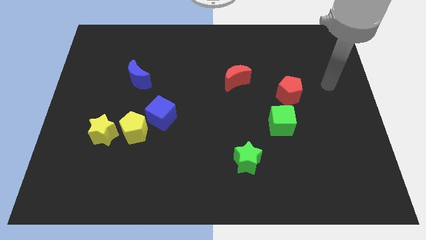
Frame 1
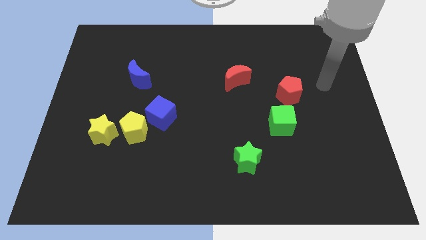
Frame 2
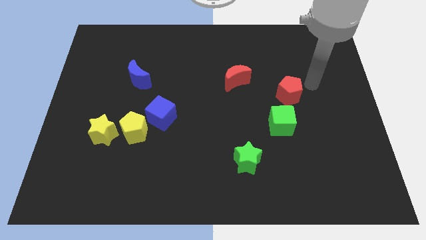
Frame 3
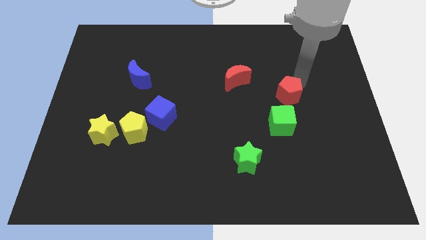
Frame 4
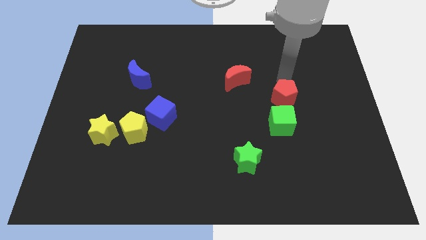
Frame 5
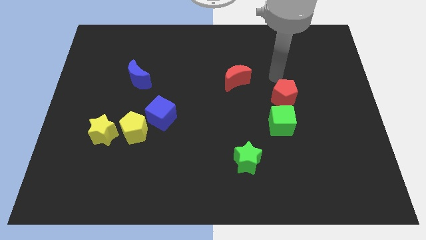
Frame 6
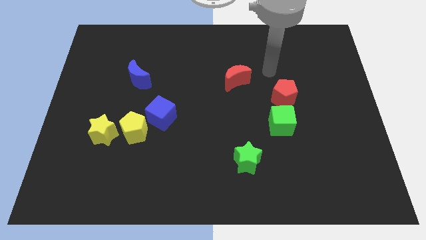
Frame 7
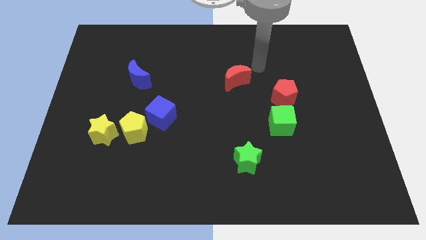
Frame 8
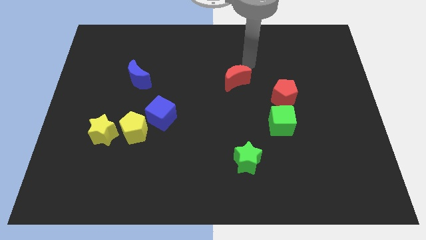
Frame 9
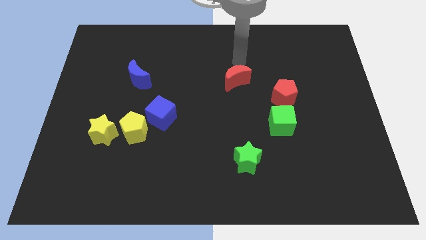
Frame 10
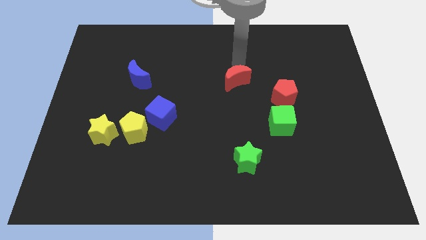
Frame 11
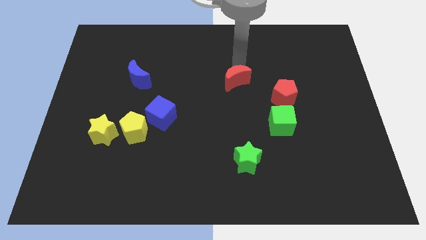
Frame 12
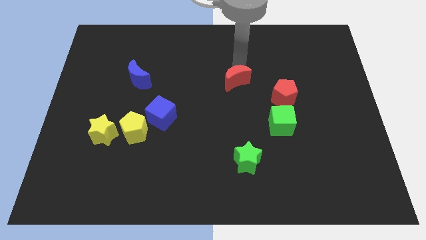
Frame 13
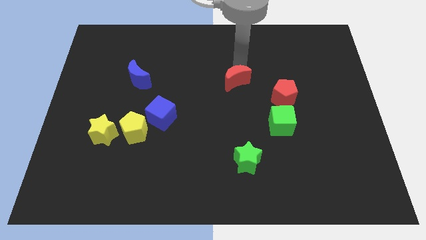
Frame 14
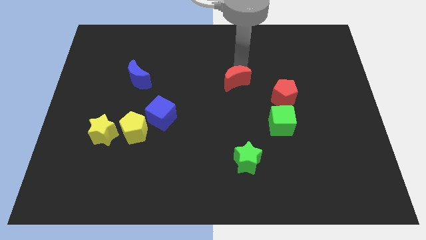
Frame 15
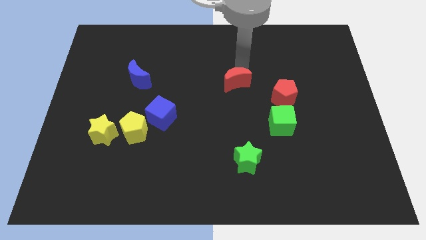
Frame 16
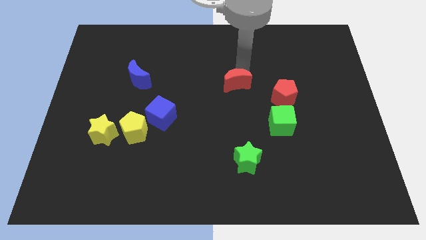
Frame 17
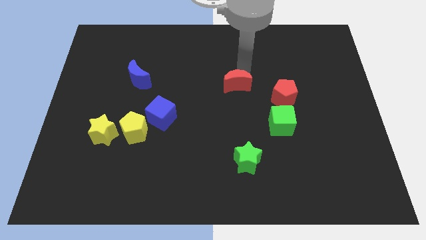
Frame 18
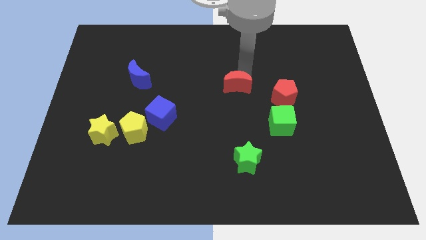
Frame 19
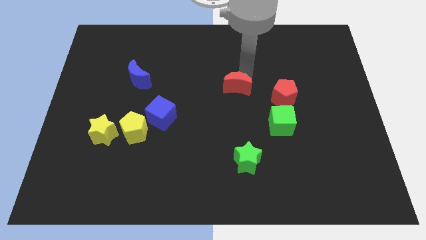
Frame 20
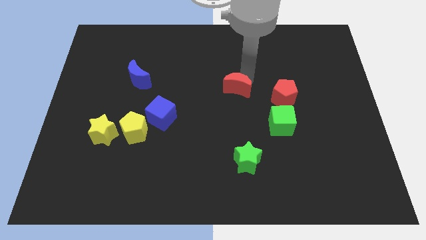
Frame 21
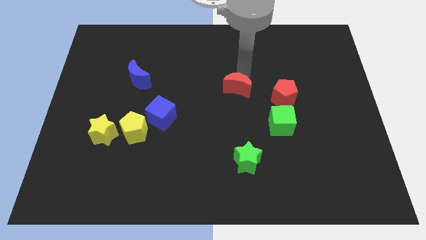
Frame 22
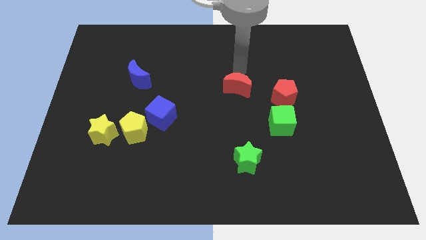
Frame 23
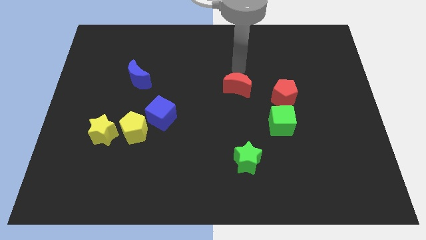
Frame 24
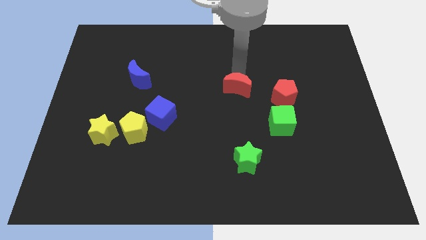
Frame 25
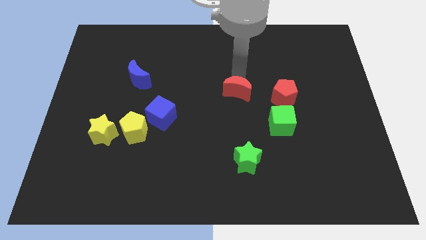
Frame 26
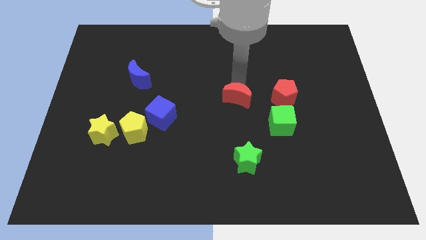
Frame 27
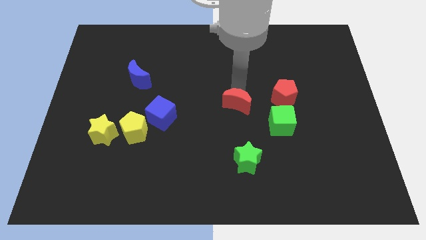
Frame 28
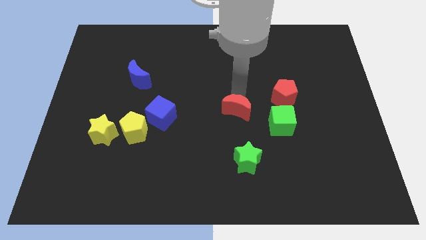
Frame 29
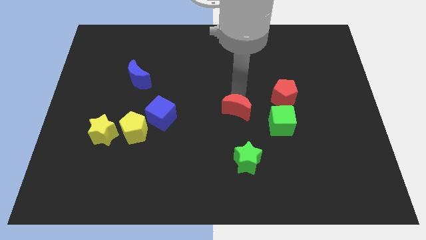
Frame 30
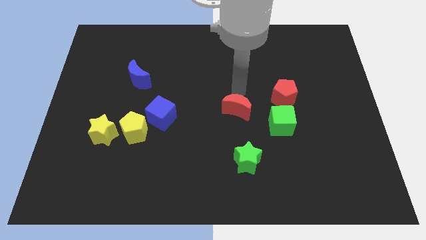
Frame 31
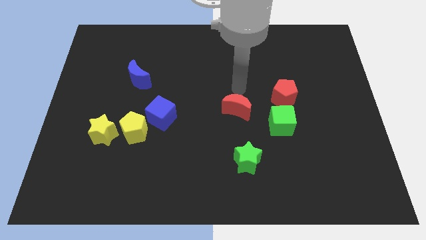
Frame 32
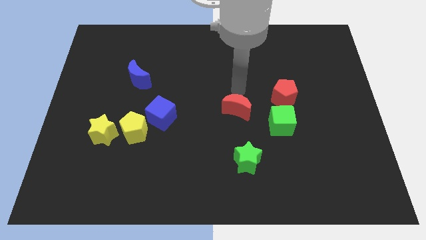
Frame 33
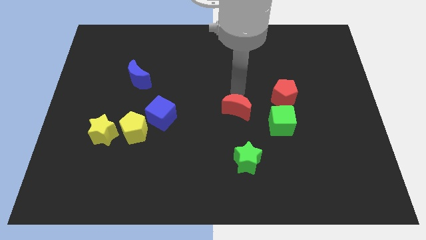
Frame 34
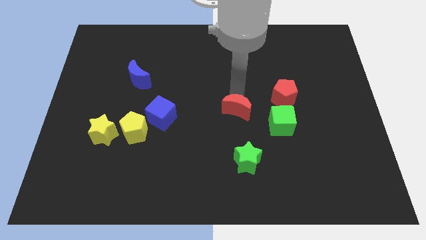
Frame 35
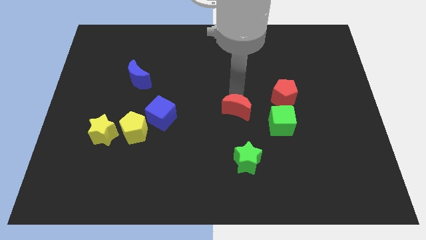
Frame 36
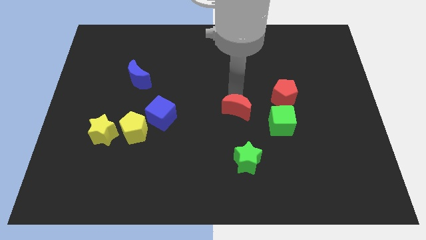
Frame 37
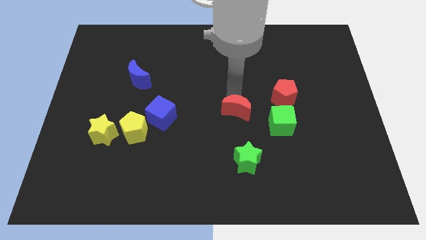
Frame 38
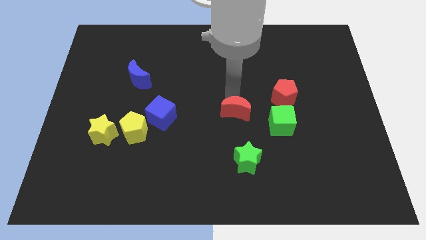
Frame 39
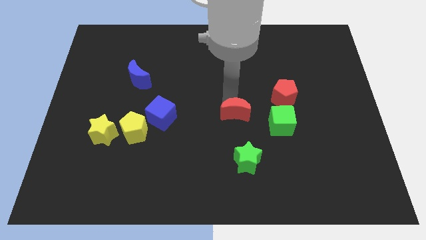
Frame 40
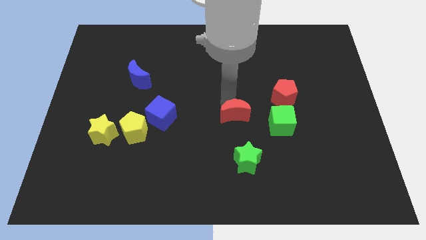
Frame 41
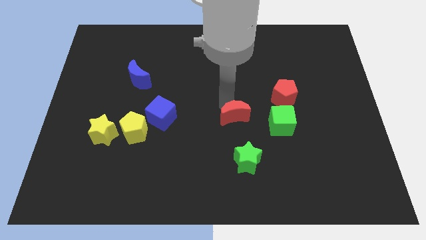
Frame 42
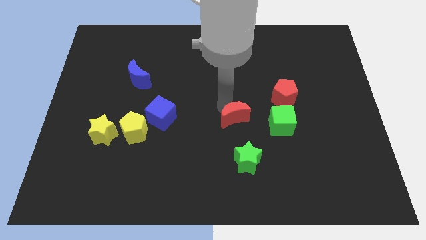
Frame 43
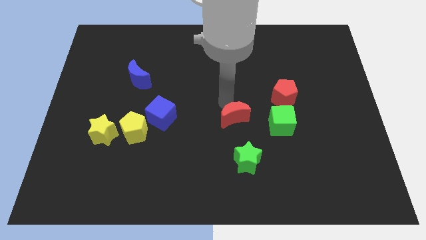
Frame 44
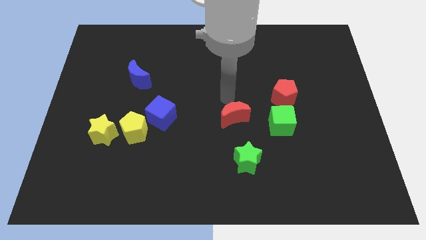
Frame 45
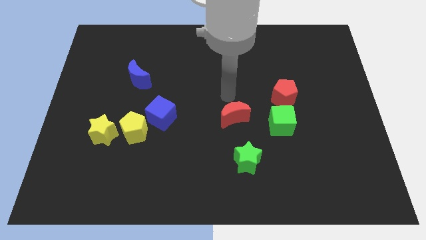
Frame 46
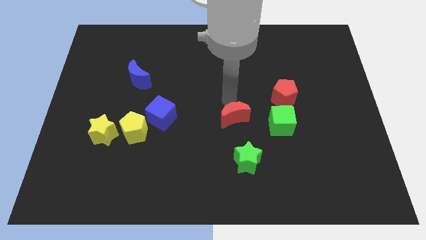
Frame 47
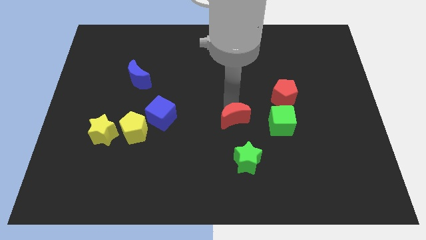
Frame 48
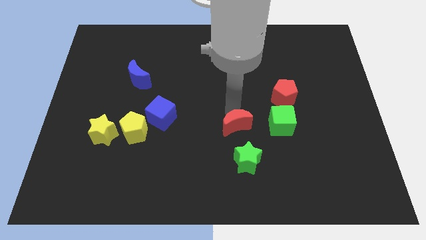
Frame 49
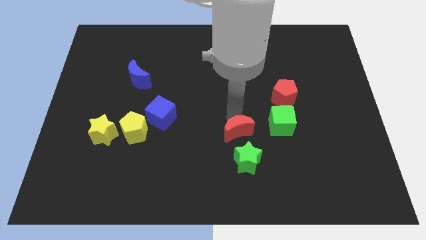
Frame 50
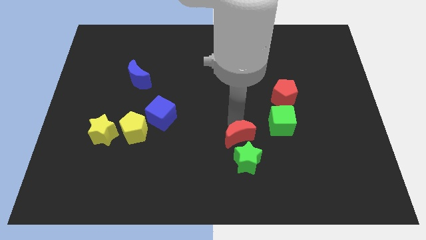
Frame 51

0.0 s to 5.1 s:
move the red moon to the green star

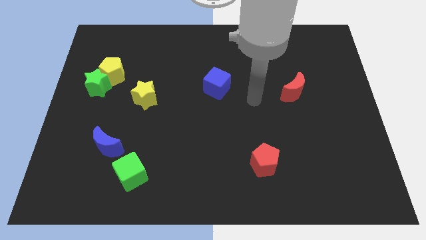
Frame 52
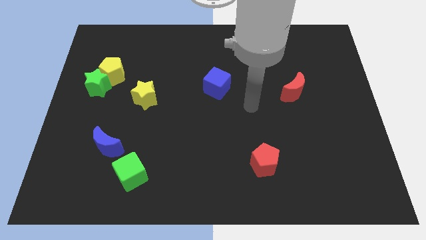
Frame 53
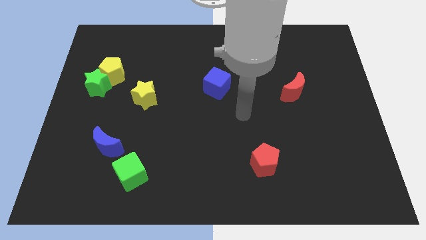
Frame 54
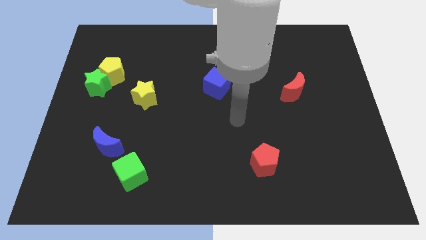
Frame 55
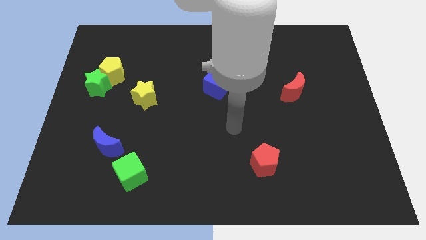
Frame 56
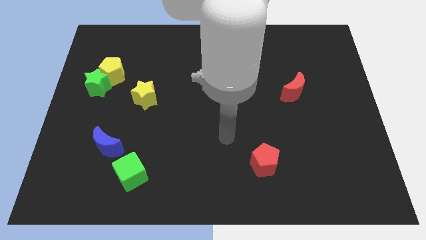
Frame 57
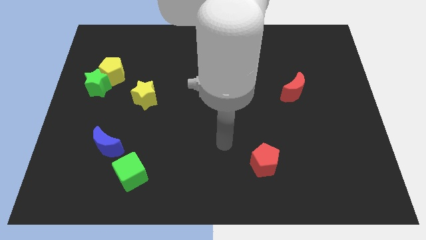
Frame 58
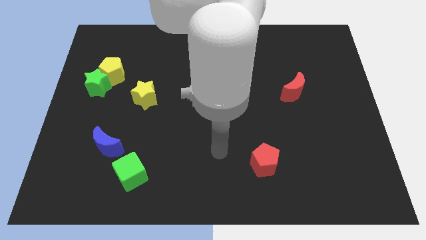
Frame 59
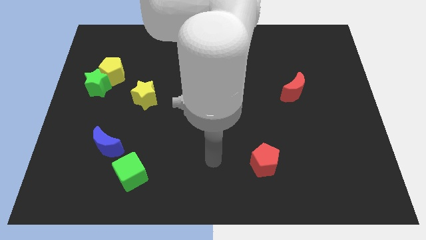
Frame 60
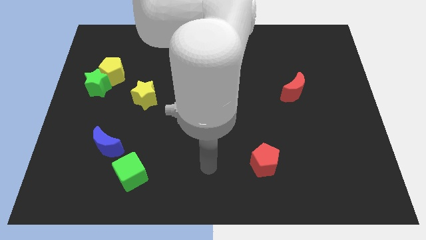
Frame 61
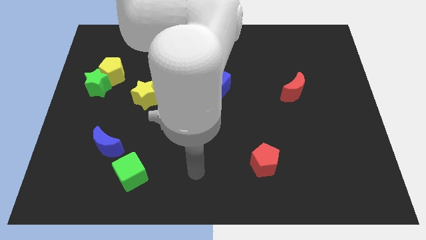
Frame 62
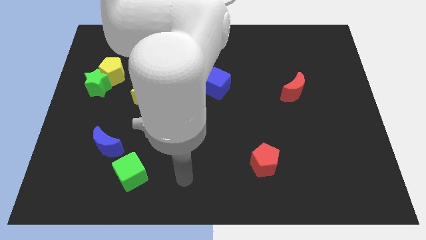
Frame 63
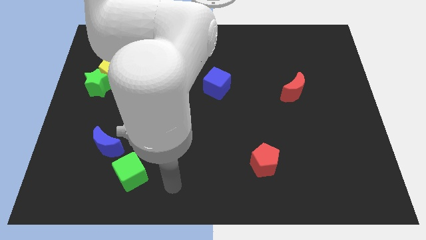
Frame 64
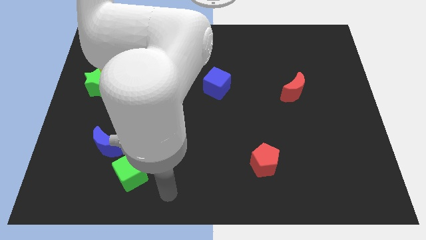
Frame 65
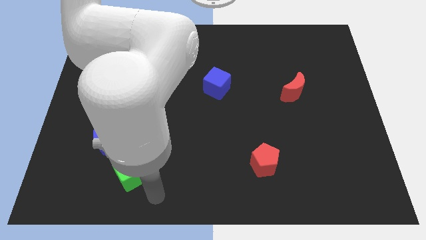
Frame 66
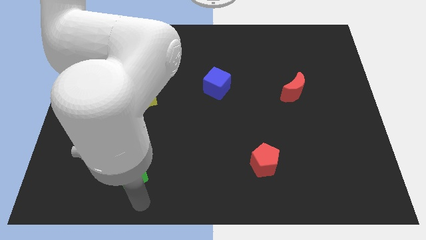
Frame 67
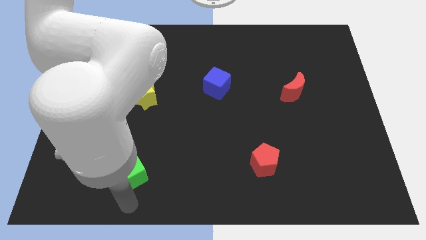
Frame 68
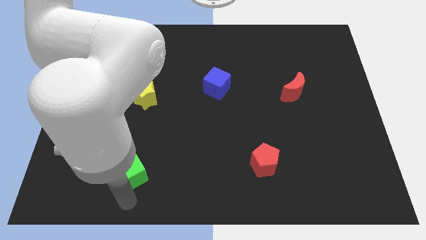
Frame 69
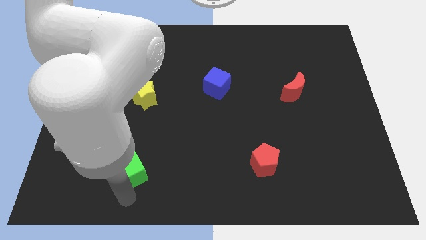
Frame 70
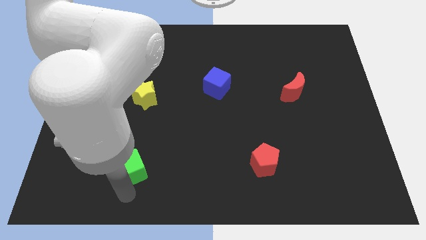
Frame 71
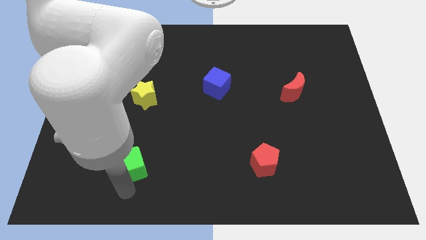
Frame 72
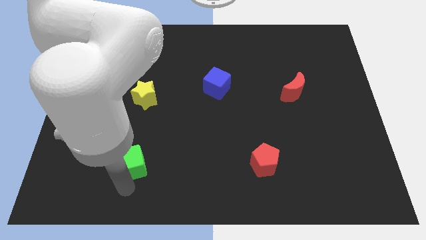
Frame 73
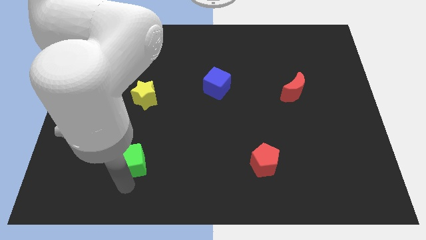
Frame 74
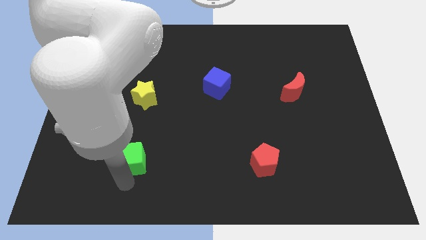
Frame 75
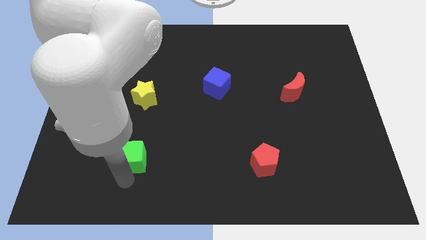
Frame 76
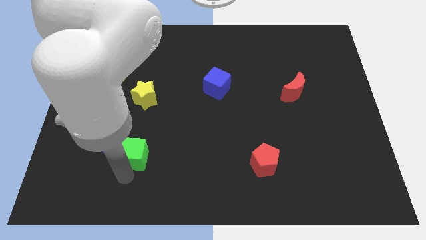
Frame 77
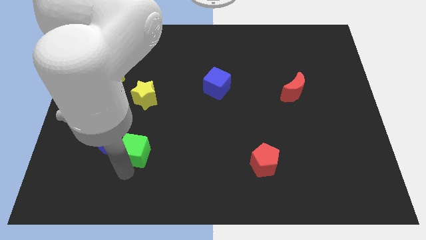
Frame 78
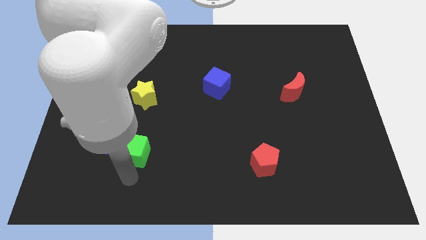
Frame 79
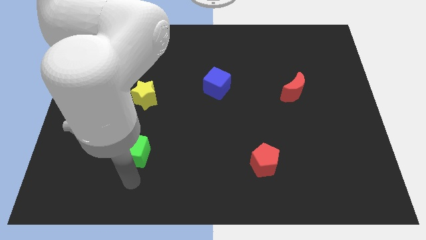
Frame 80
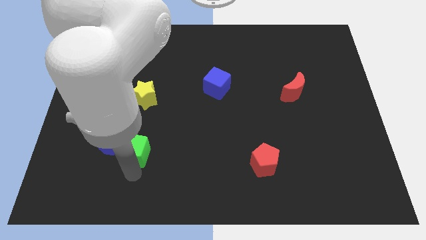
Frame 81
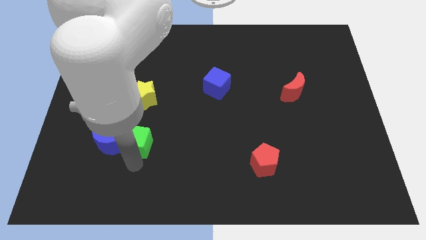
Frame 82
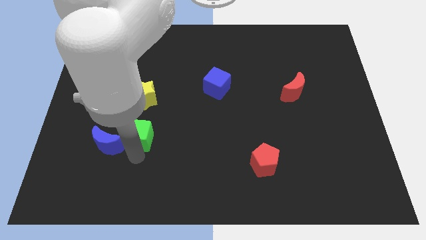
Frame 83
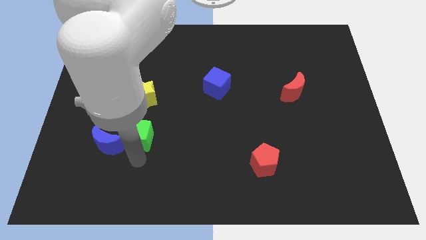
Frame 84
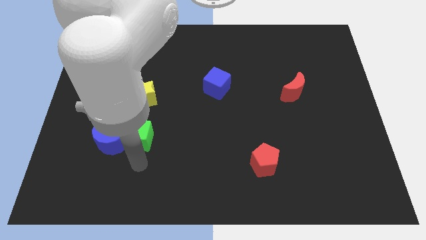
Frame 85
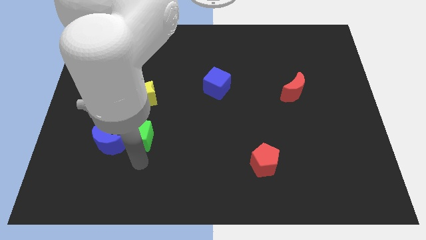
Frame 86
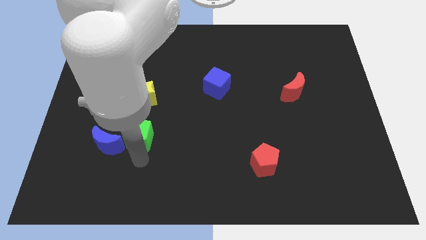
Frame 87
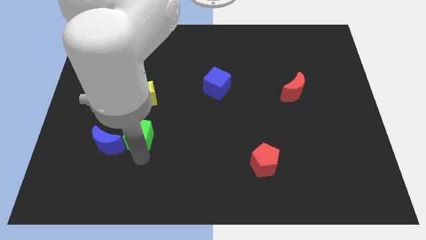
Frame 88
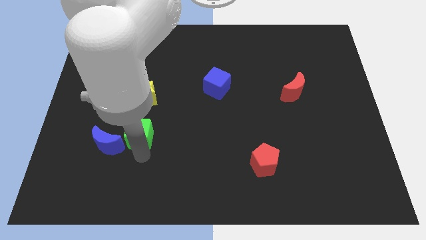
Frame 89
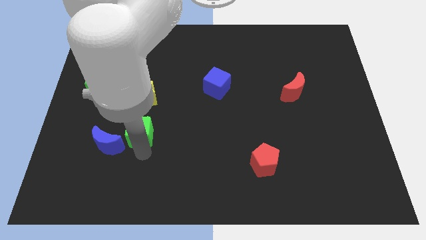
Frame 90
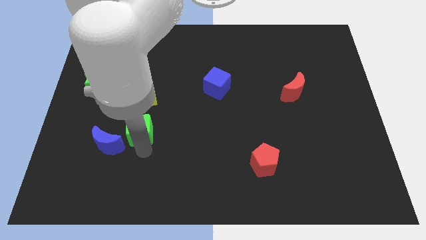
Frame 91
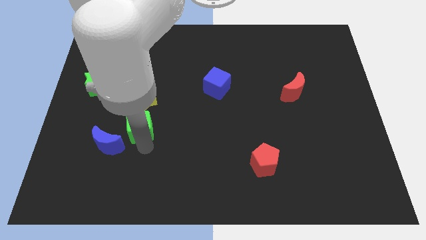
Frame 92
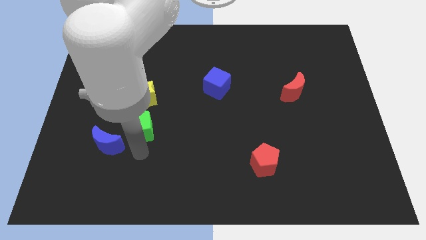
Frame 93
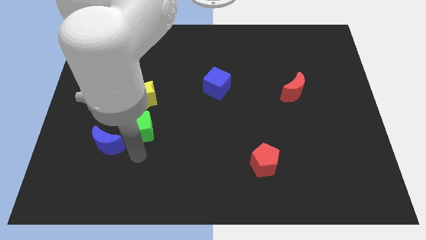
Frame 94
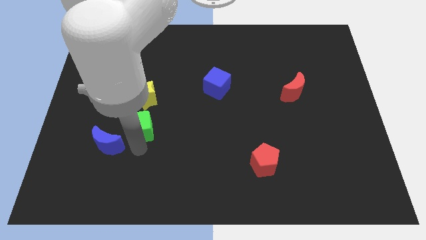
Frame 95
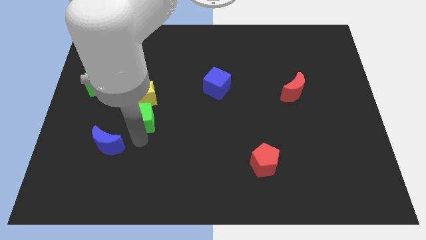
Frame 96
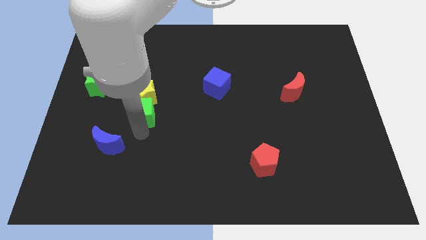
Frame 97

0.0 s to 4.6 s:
move the green cube to the yellow star
